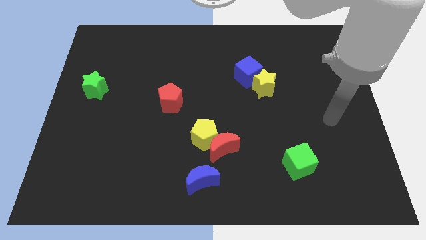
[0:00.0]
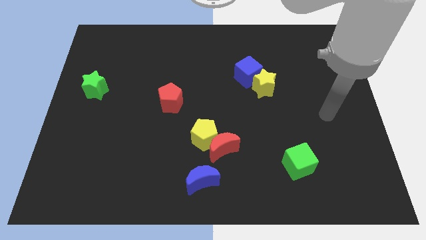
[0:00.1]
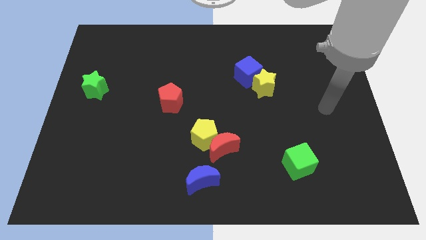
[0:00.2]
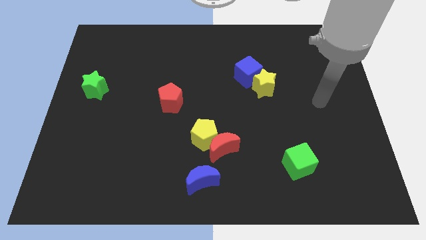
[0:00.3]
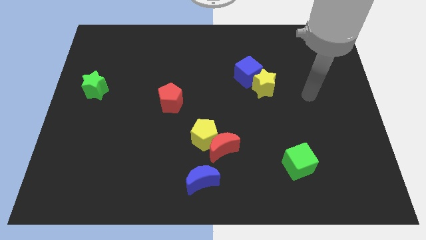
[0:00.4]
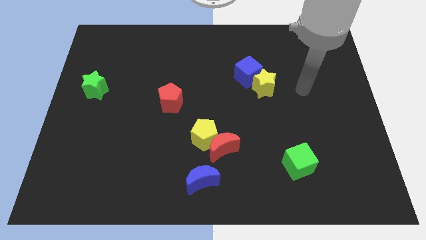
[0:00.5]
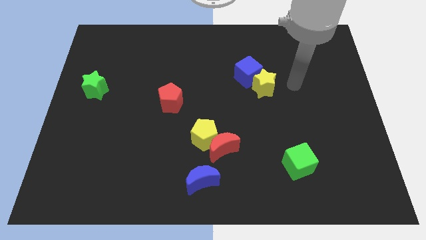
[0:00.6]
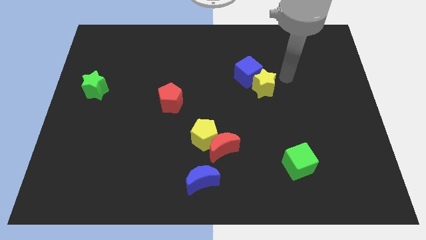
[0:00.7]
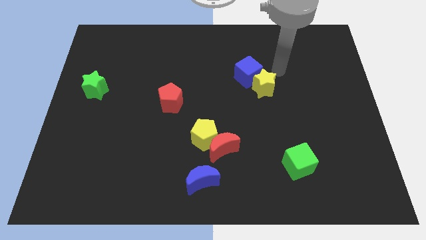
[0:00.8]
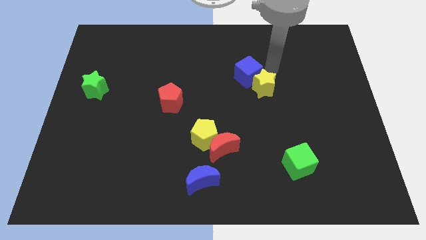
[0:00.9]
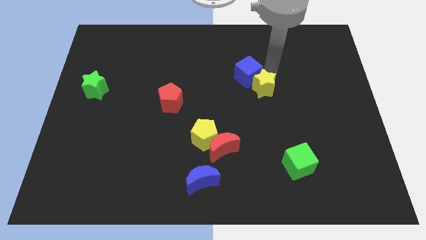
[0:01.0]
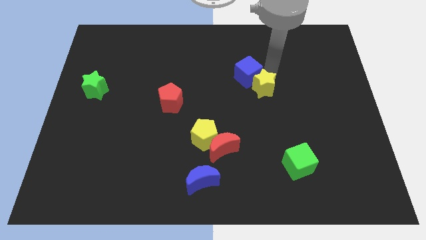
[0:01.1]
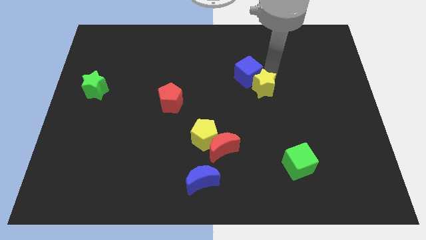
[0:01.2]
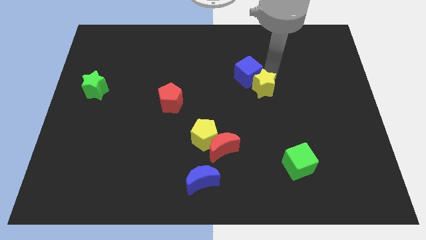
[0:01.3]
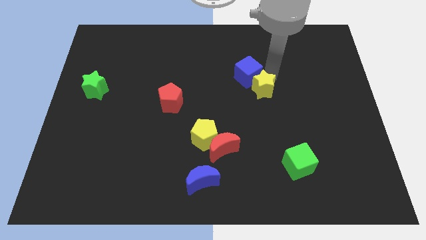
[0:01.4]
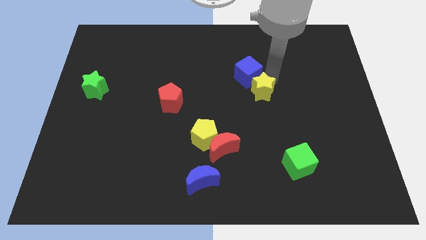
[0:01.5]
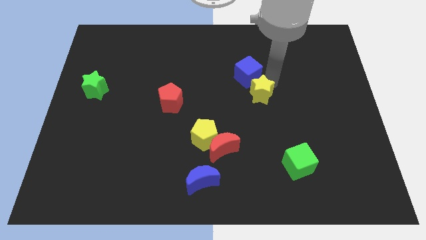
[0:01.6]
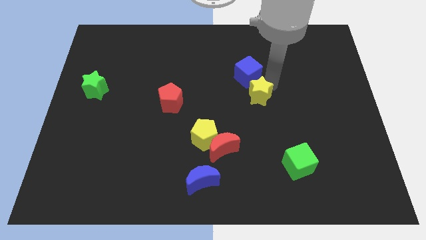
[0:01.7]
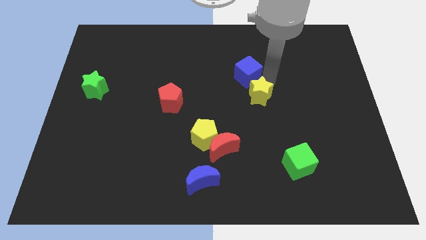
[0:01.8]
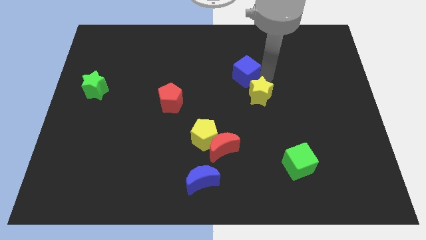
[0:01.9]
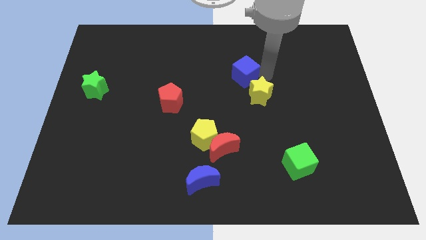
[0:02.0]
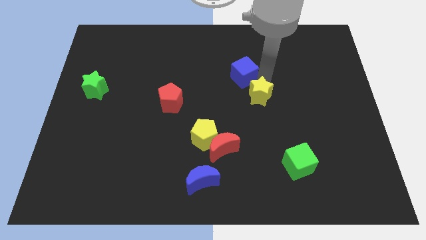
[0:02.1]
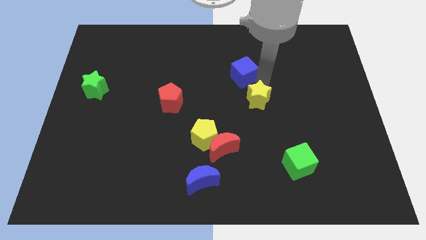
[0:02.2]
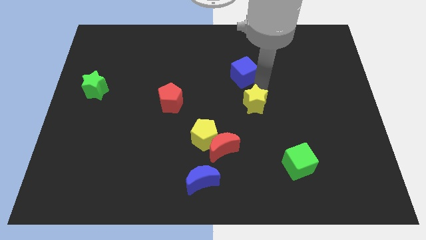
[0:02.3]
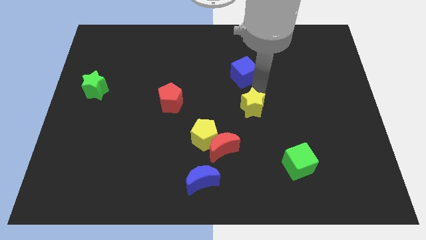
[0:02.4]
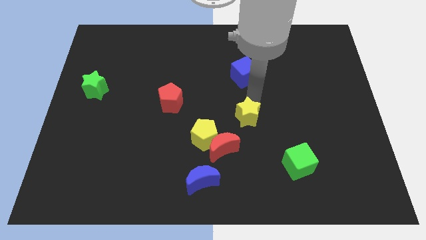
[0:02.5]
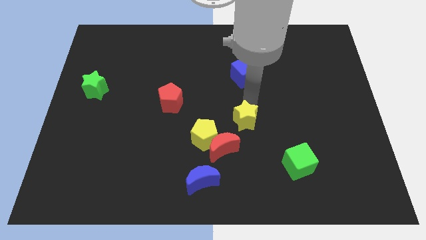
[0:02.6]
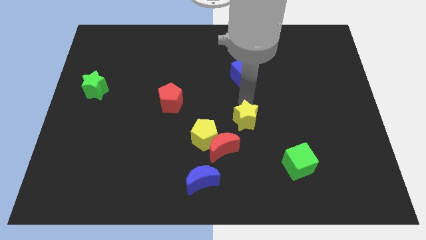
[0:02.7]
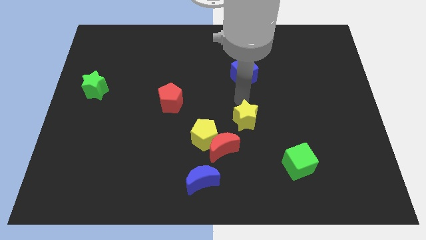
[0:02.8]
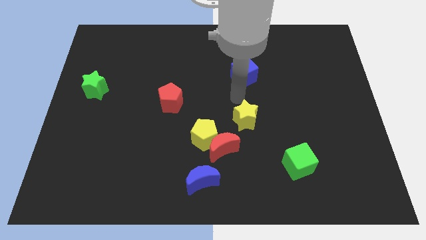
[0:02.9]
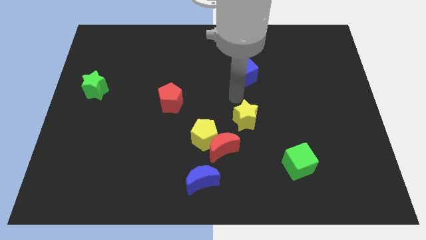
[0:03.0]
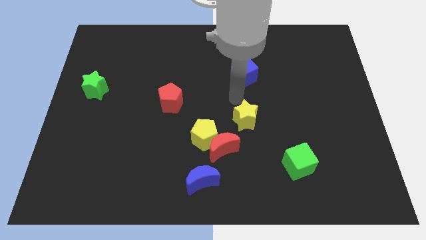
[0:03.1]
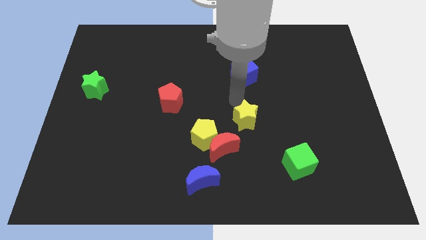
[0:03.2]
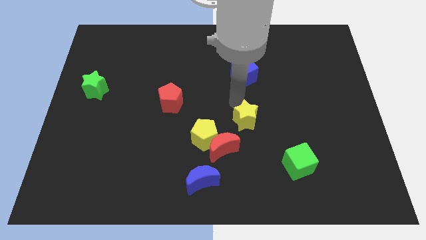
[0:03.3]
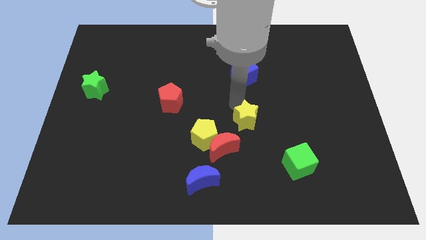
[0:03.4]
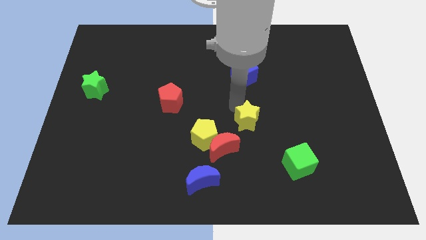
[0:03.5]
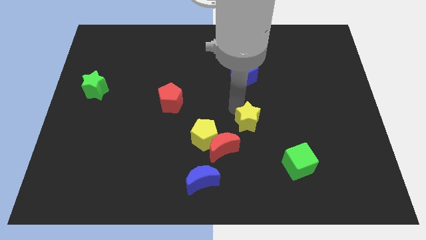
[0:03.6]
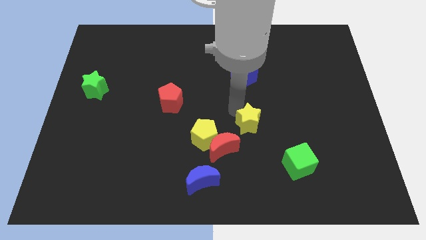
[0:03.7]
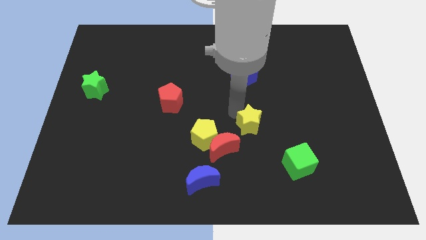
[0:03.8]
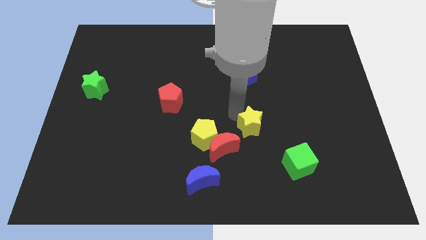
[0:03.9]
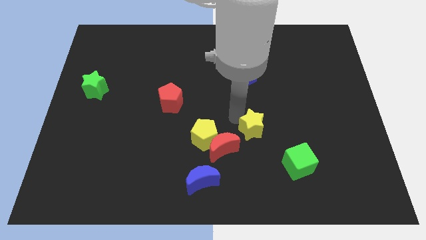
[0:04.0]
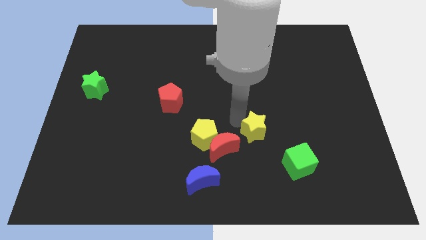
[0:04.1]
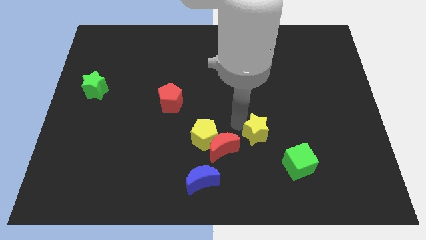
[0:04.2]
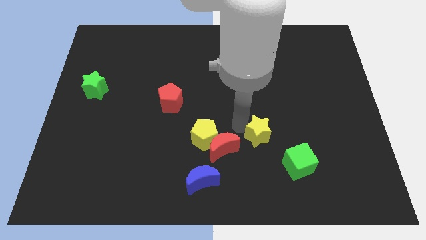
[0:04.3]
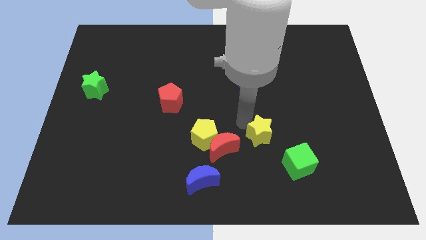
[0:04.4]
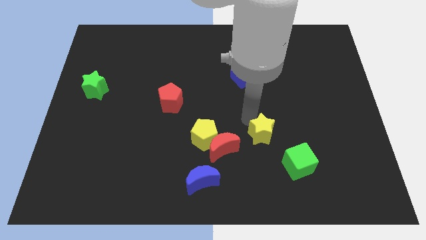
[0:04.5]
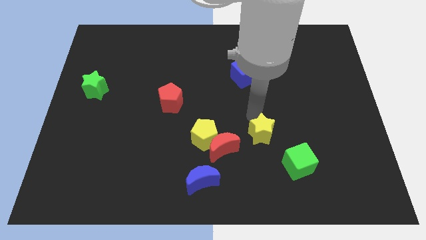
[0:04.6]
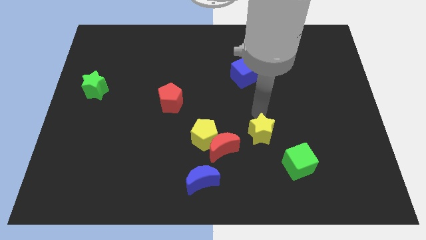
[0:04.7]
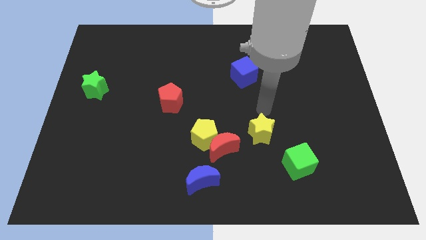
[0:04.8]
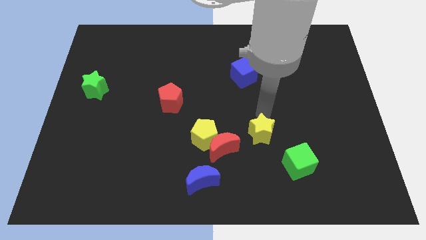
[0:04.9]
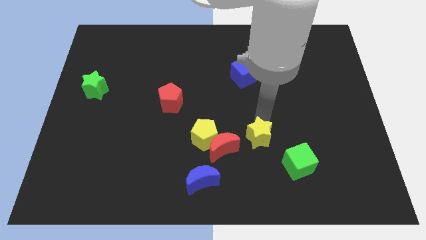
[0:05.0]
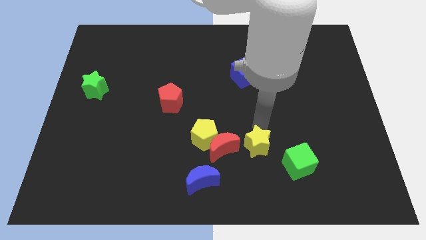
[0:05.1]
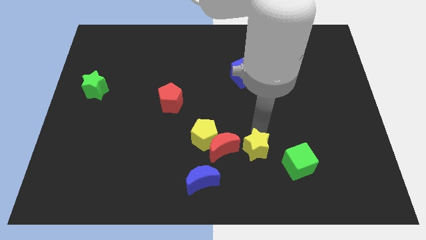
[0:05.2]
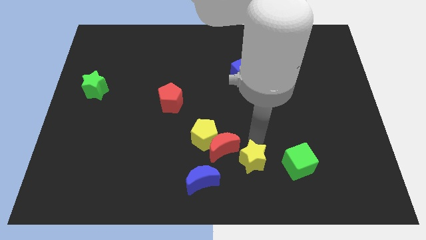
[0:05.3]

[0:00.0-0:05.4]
push the yellow star to the right side of the blue moon

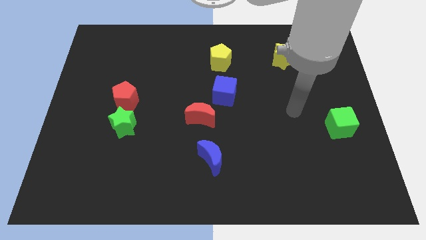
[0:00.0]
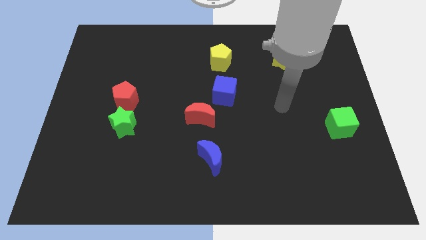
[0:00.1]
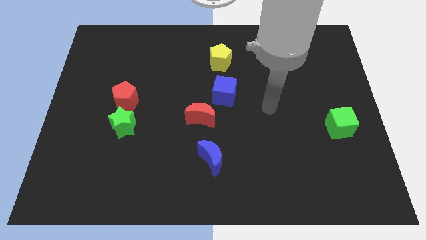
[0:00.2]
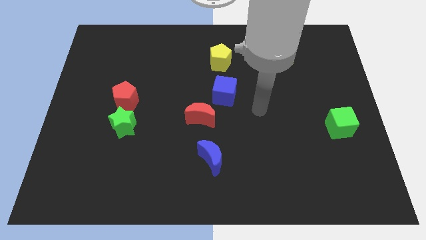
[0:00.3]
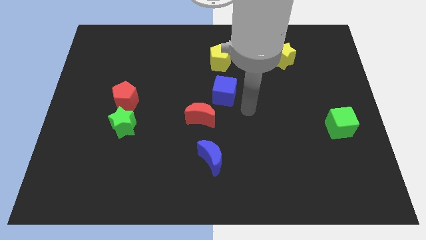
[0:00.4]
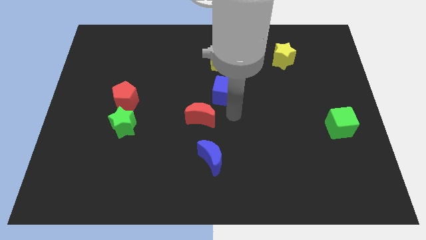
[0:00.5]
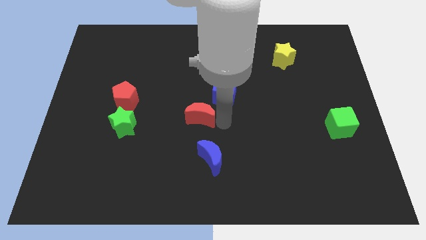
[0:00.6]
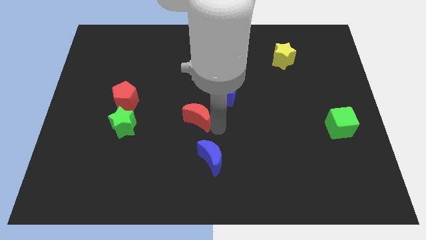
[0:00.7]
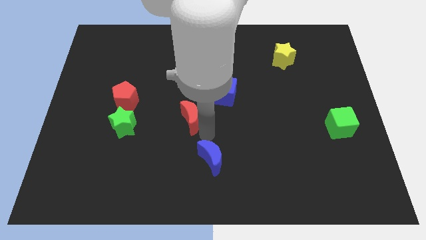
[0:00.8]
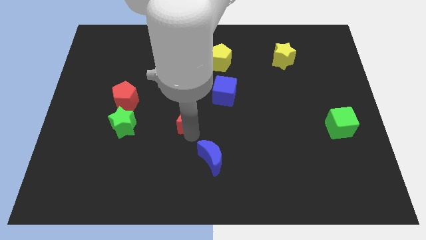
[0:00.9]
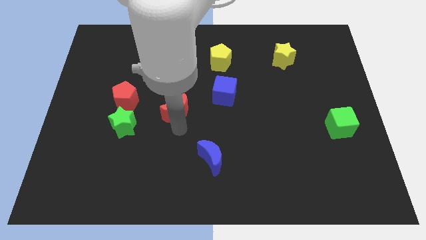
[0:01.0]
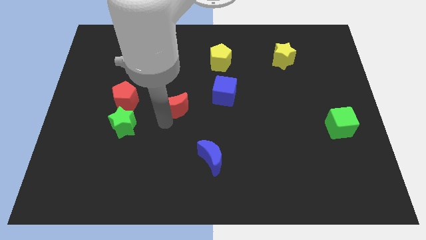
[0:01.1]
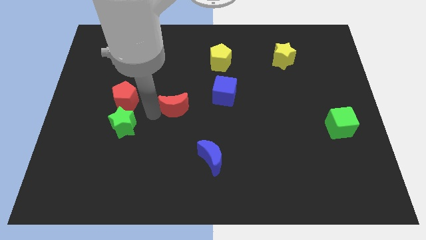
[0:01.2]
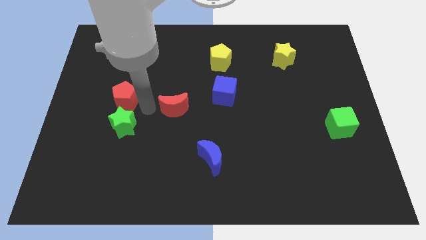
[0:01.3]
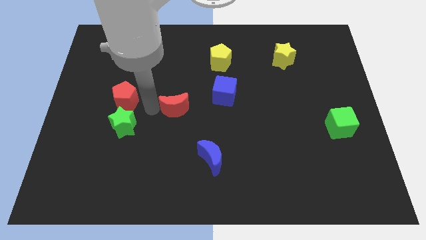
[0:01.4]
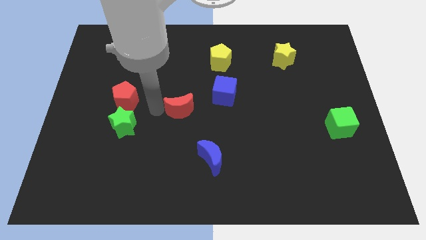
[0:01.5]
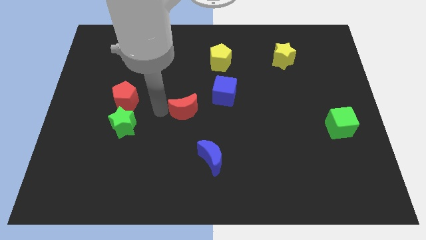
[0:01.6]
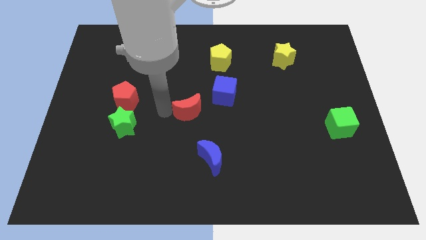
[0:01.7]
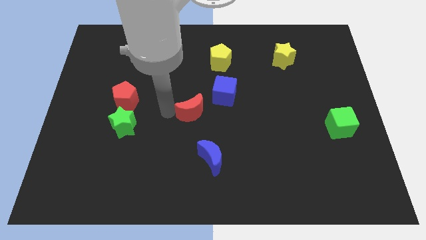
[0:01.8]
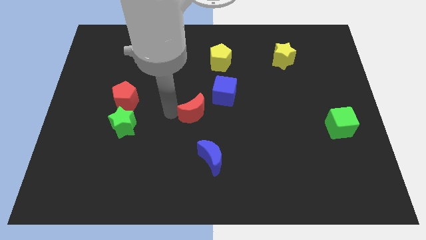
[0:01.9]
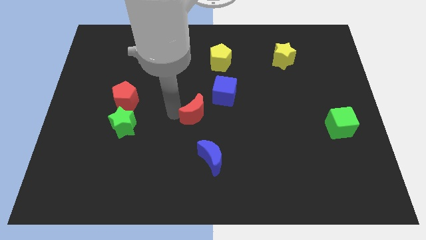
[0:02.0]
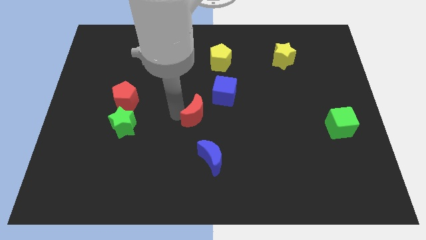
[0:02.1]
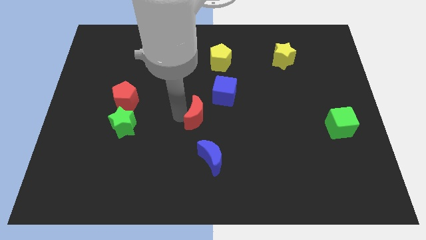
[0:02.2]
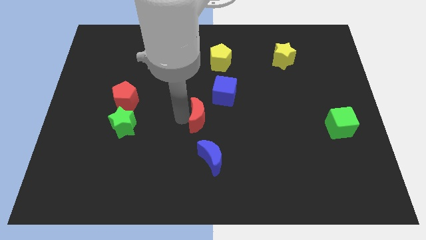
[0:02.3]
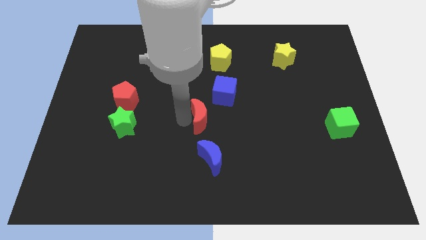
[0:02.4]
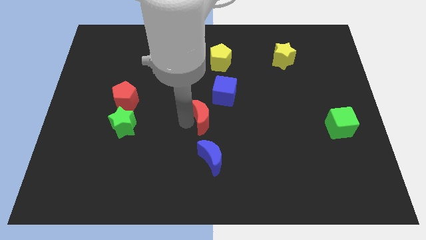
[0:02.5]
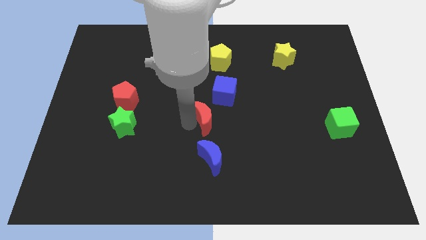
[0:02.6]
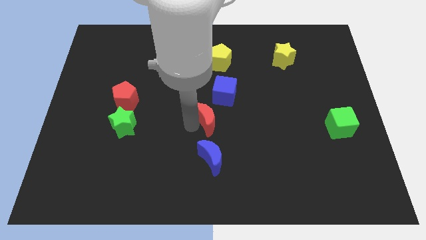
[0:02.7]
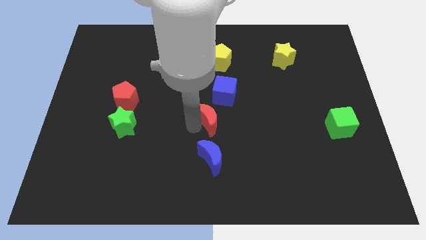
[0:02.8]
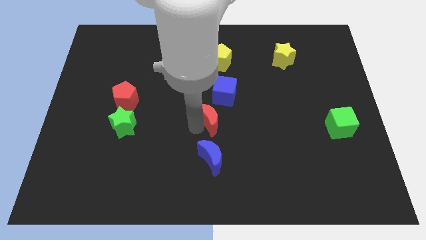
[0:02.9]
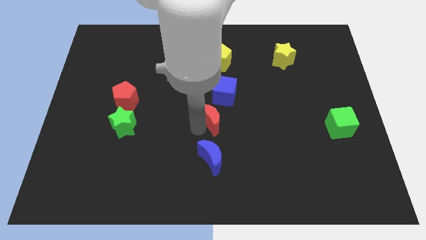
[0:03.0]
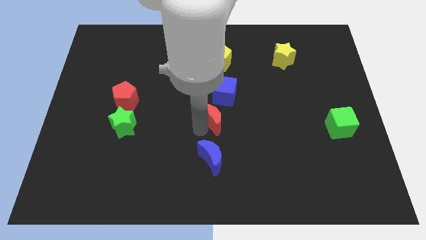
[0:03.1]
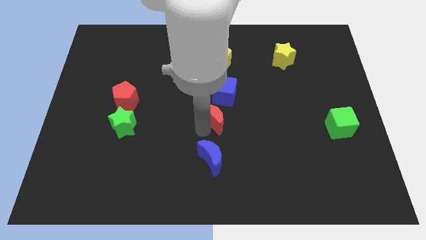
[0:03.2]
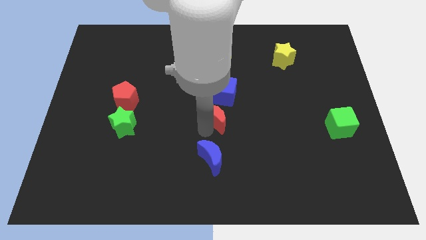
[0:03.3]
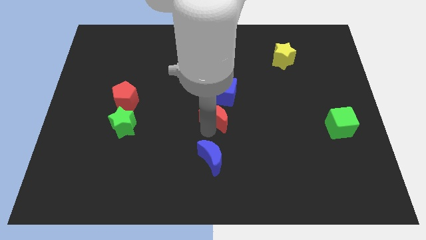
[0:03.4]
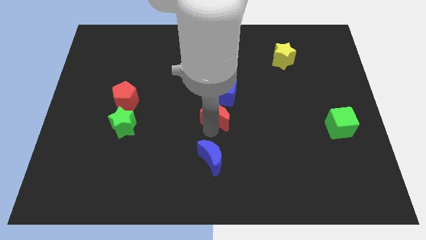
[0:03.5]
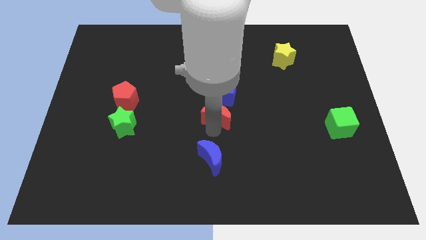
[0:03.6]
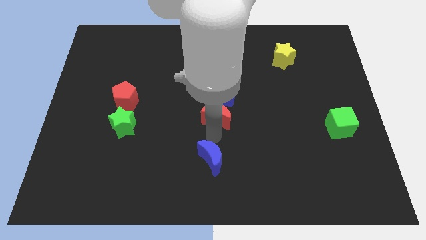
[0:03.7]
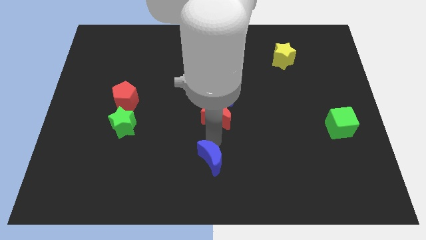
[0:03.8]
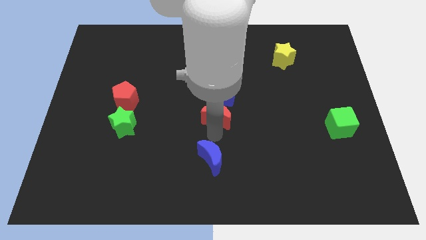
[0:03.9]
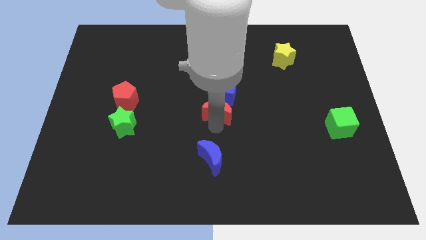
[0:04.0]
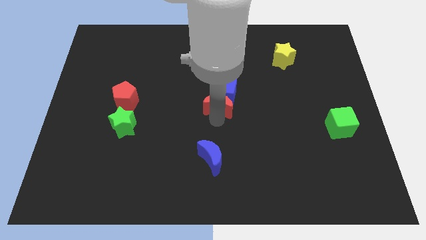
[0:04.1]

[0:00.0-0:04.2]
put the red moon below the yellow pentagon
